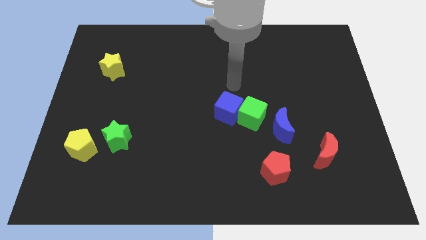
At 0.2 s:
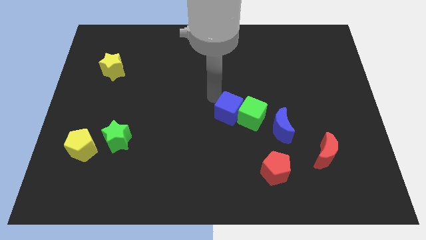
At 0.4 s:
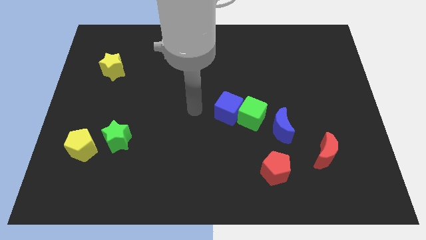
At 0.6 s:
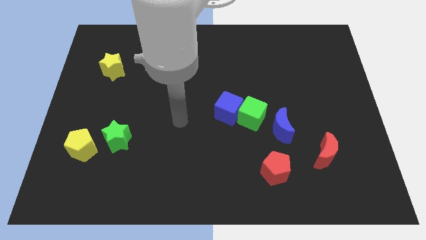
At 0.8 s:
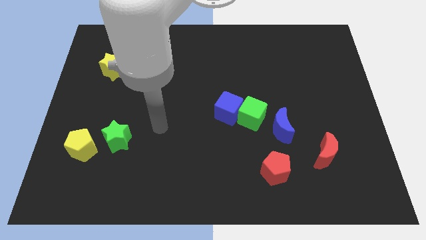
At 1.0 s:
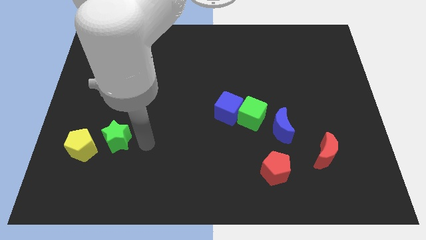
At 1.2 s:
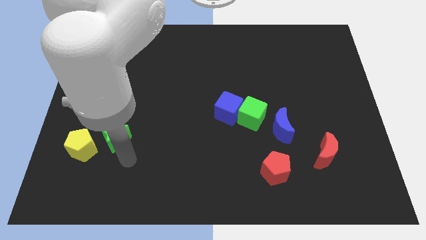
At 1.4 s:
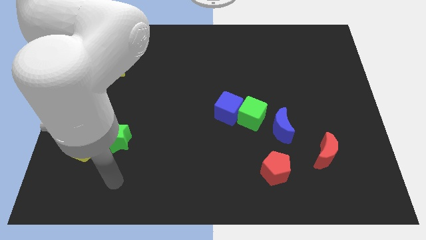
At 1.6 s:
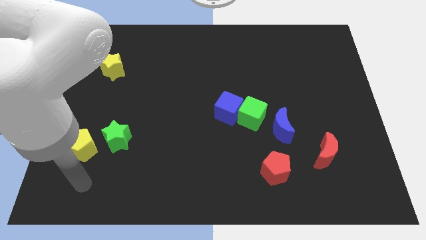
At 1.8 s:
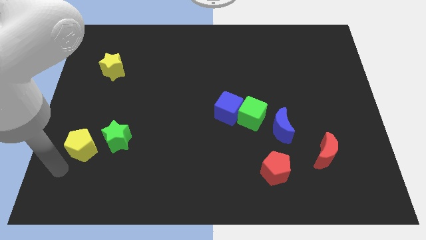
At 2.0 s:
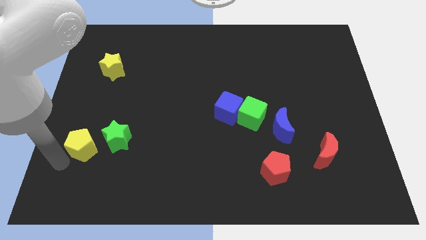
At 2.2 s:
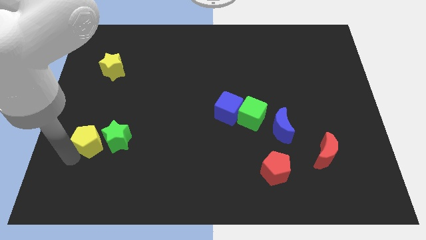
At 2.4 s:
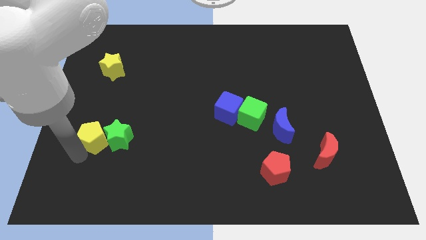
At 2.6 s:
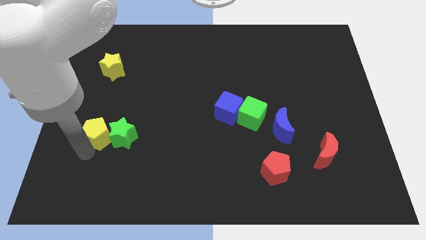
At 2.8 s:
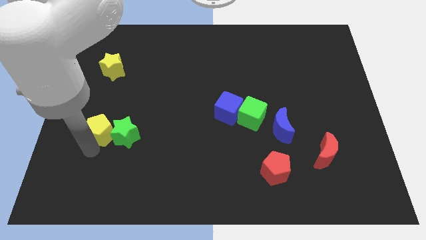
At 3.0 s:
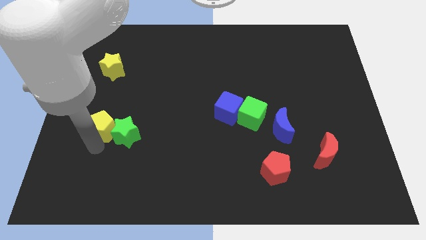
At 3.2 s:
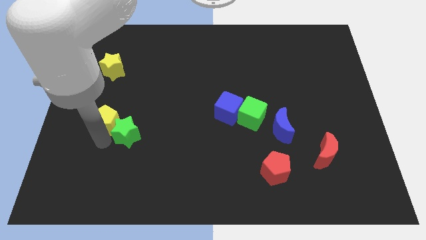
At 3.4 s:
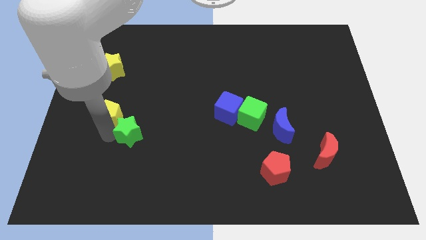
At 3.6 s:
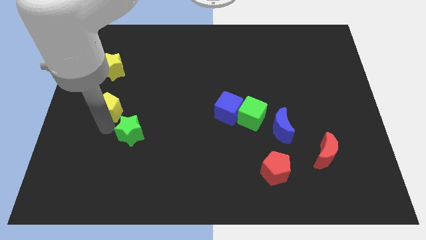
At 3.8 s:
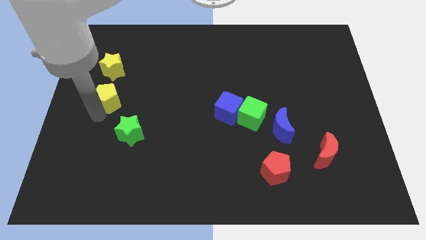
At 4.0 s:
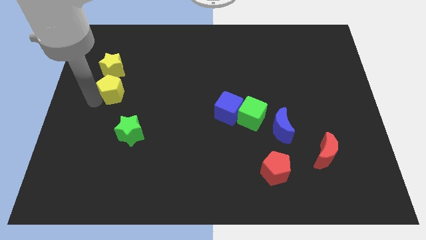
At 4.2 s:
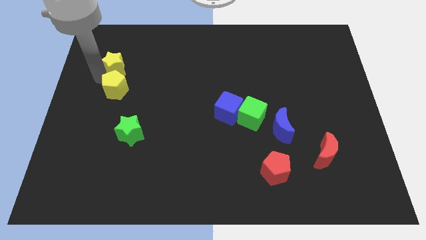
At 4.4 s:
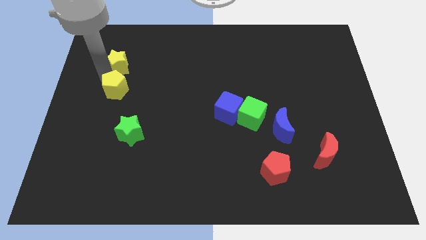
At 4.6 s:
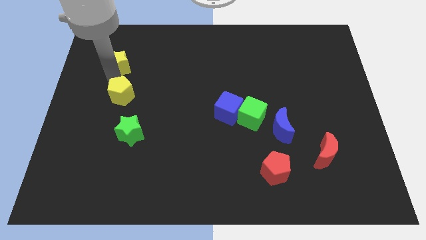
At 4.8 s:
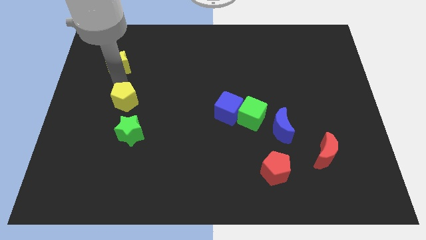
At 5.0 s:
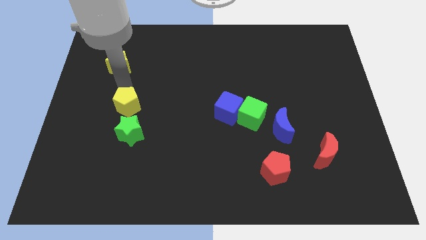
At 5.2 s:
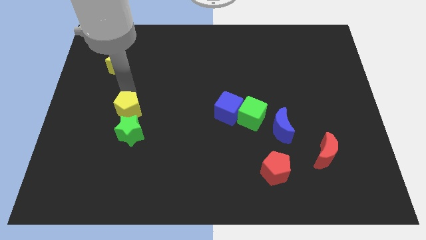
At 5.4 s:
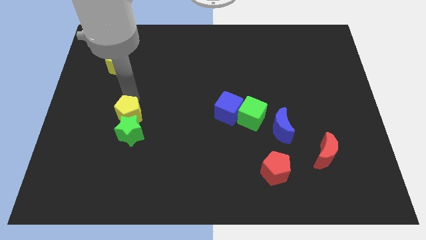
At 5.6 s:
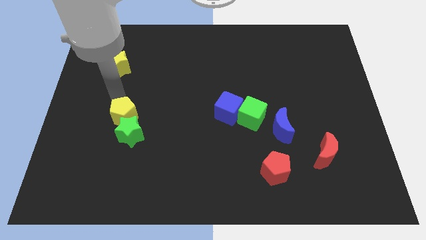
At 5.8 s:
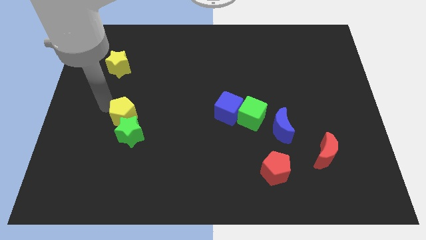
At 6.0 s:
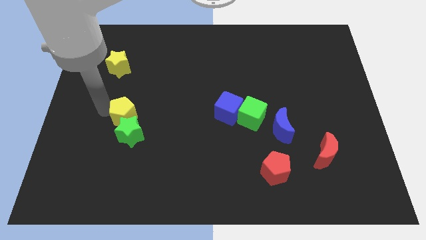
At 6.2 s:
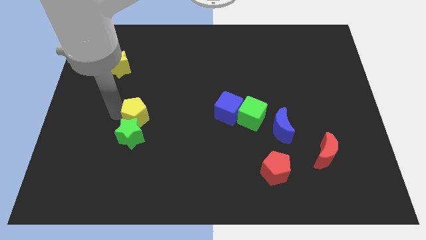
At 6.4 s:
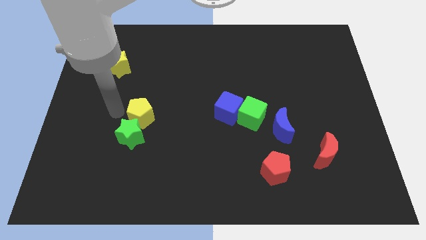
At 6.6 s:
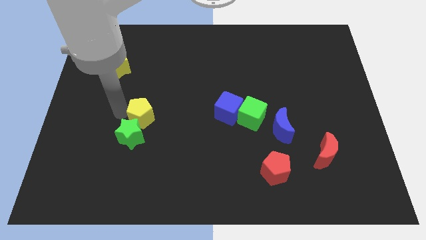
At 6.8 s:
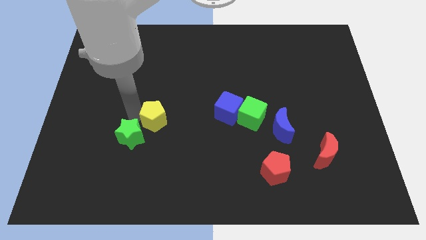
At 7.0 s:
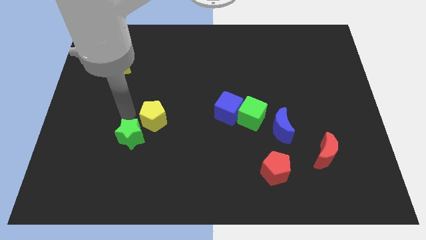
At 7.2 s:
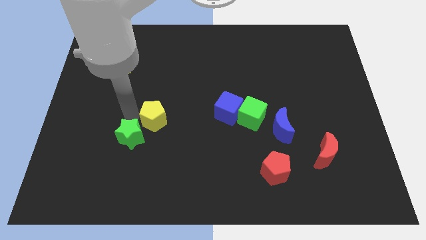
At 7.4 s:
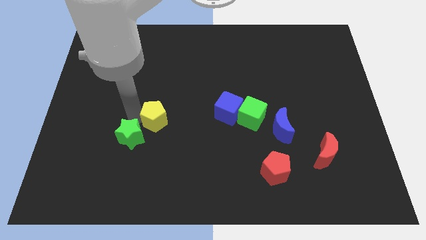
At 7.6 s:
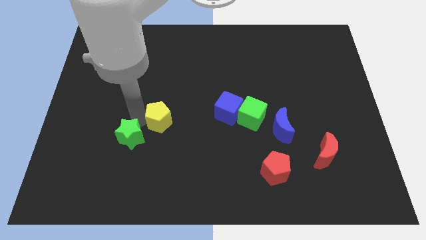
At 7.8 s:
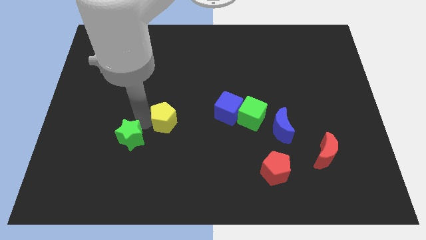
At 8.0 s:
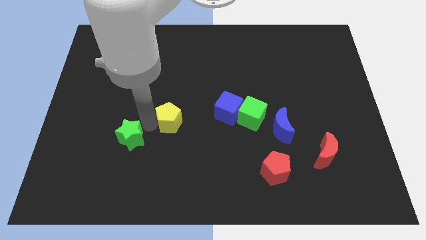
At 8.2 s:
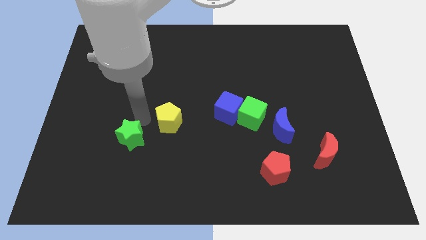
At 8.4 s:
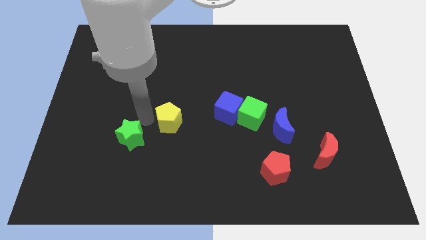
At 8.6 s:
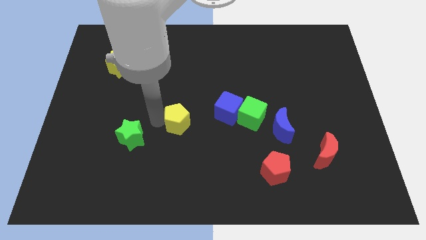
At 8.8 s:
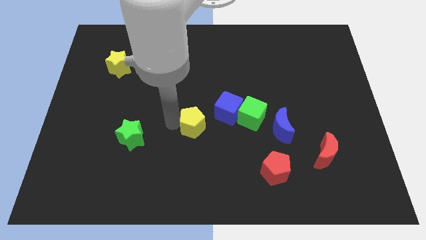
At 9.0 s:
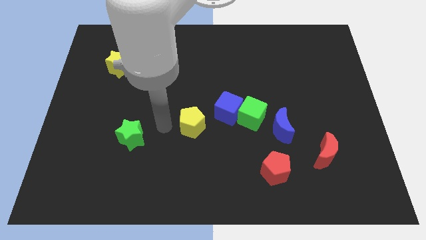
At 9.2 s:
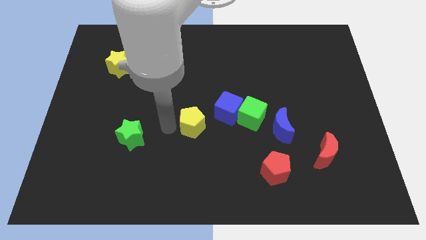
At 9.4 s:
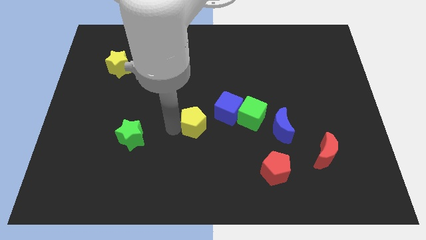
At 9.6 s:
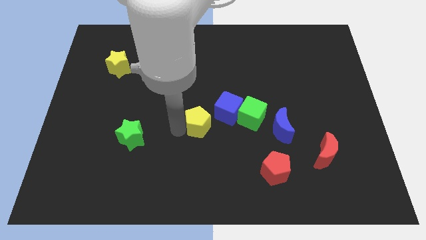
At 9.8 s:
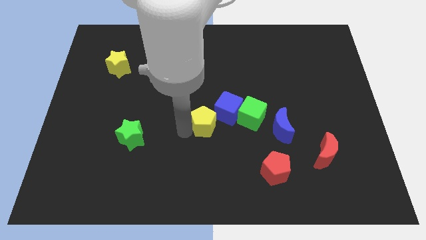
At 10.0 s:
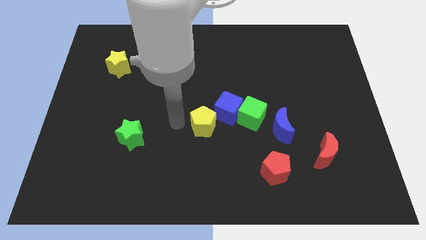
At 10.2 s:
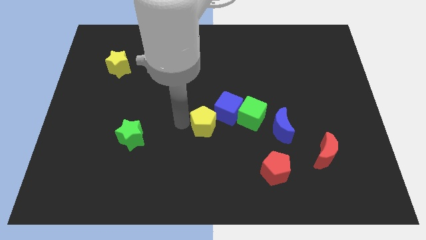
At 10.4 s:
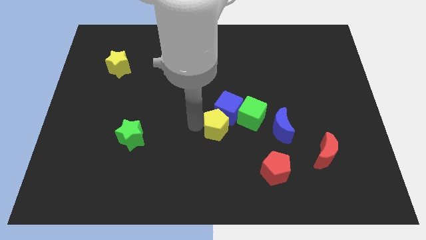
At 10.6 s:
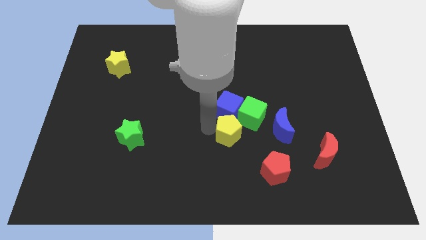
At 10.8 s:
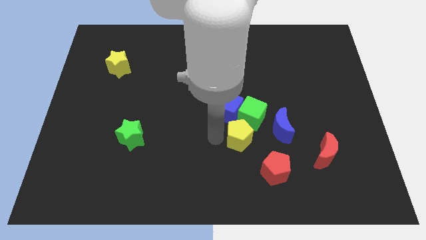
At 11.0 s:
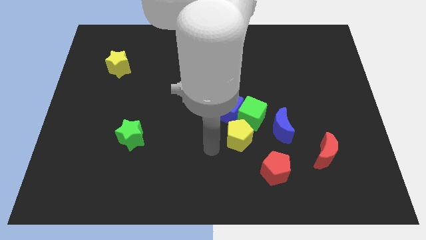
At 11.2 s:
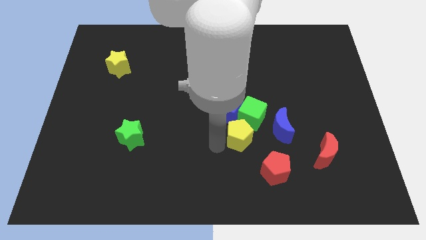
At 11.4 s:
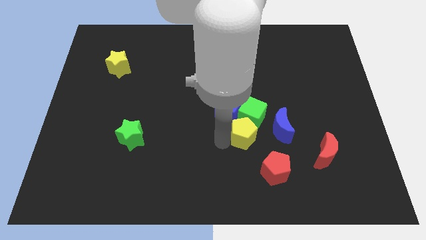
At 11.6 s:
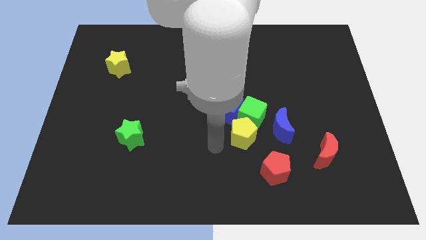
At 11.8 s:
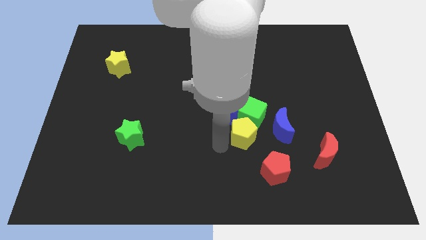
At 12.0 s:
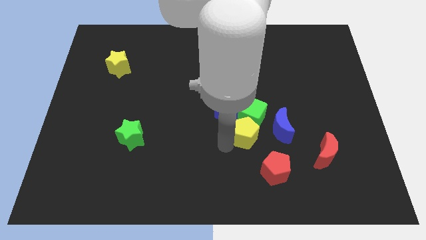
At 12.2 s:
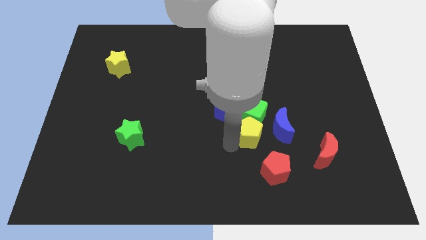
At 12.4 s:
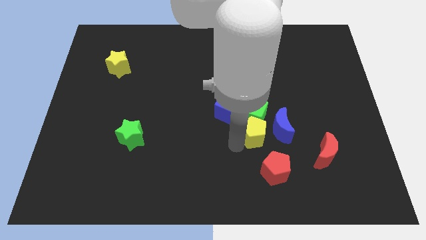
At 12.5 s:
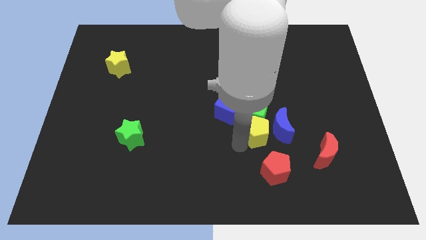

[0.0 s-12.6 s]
slide the yellow pentagon towards the blue moon

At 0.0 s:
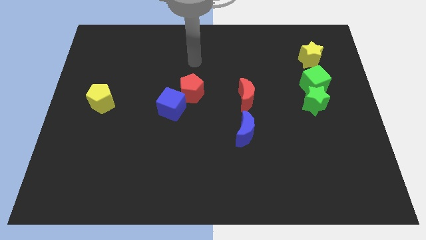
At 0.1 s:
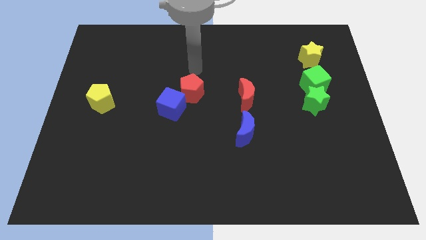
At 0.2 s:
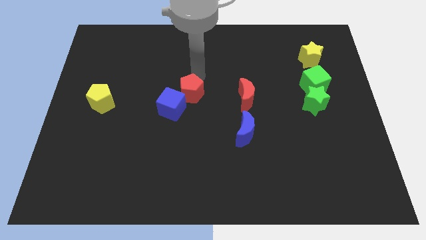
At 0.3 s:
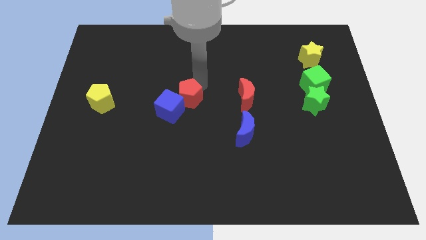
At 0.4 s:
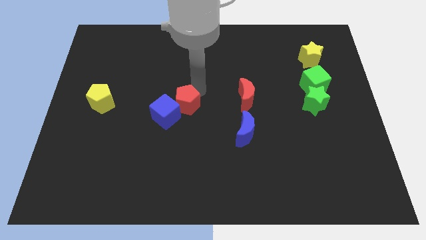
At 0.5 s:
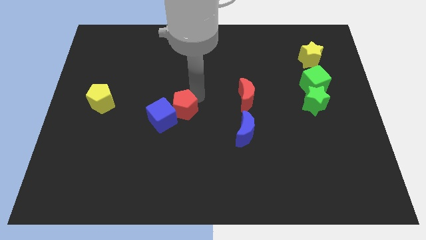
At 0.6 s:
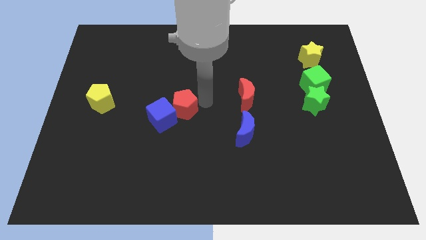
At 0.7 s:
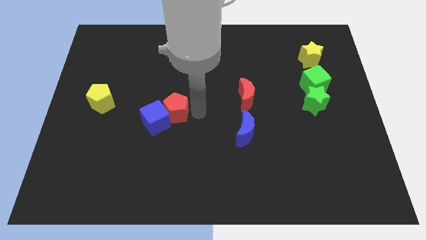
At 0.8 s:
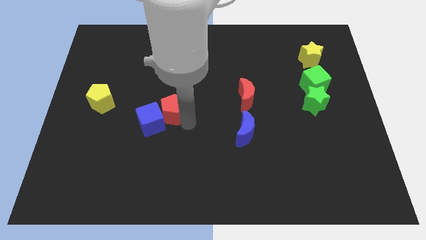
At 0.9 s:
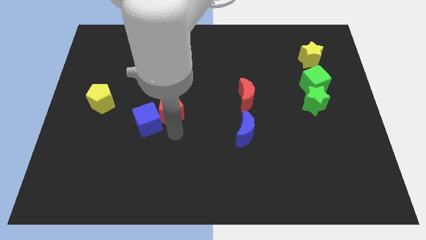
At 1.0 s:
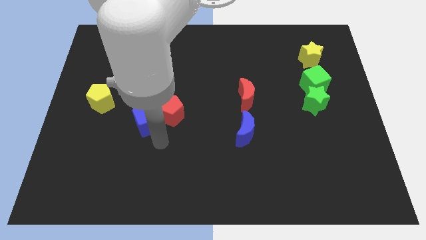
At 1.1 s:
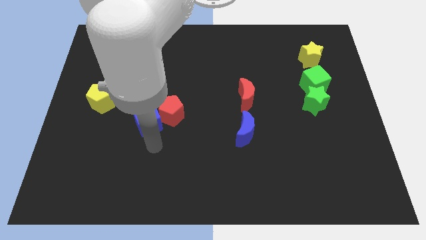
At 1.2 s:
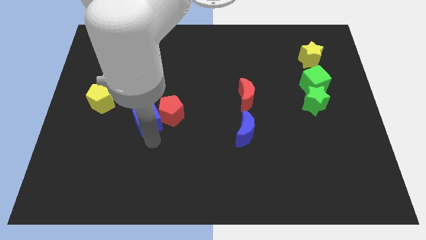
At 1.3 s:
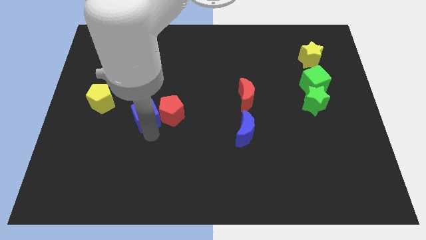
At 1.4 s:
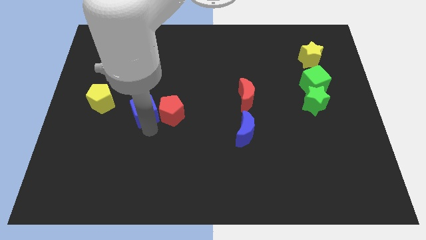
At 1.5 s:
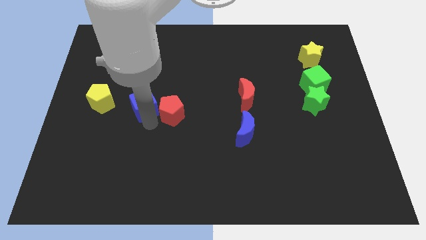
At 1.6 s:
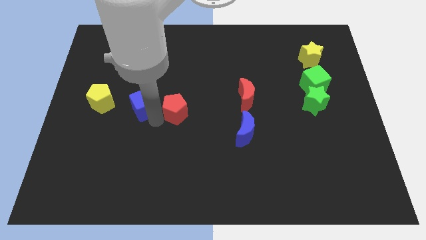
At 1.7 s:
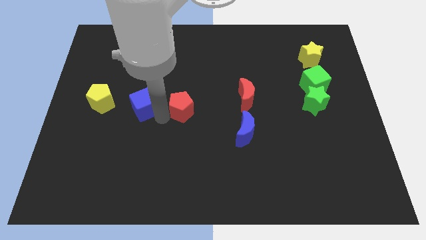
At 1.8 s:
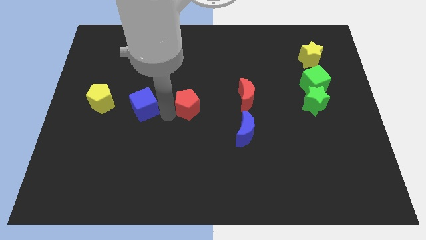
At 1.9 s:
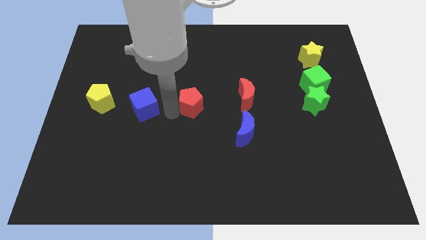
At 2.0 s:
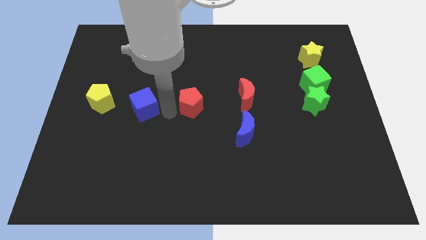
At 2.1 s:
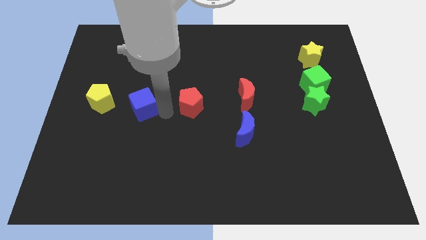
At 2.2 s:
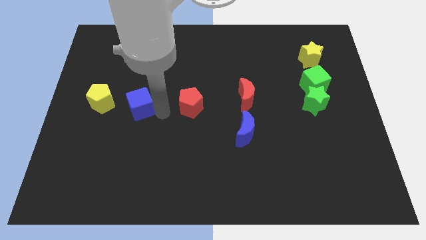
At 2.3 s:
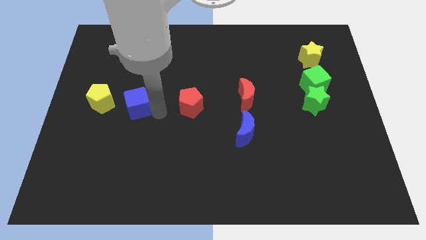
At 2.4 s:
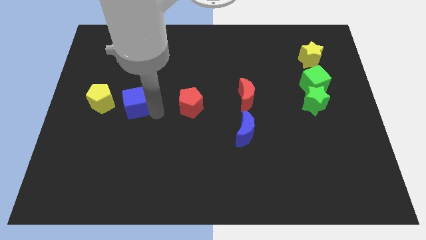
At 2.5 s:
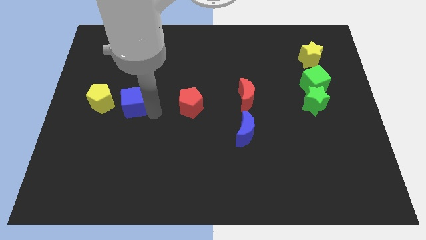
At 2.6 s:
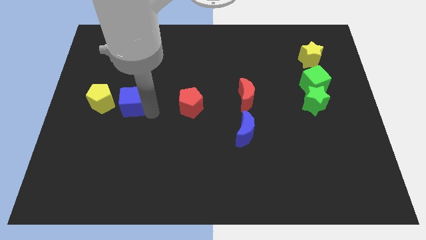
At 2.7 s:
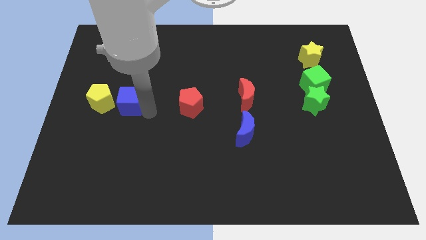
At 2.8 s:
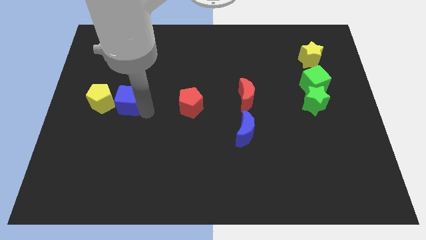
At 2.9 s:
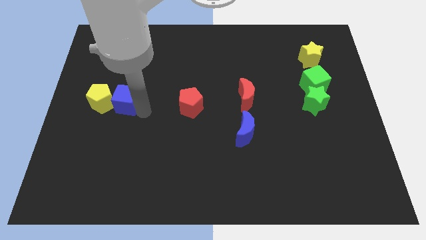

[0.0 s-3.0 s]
put the blue cube to the yellow pentagon
